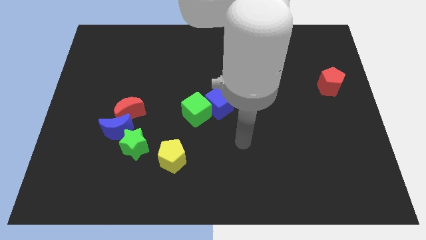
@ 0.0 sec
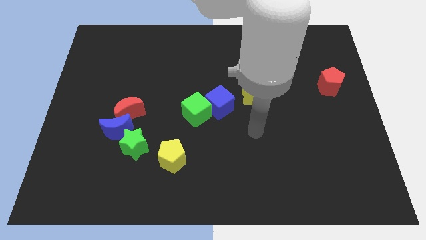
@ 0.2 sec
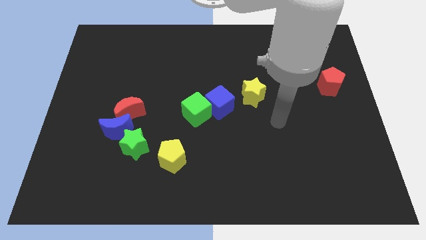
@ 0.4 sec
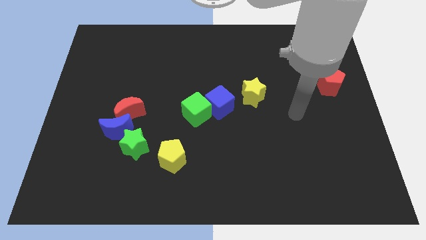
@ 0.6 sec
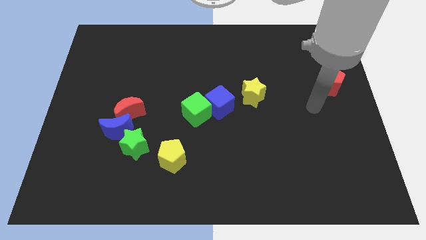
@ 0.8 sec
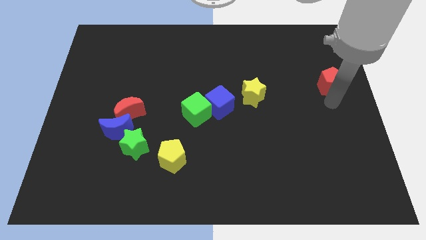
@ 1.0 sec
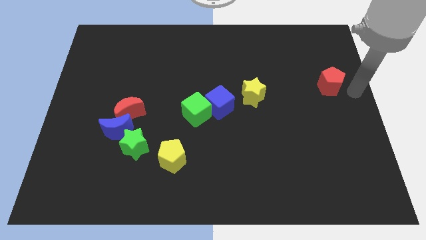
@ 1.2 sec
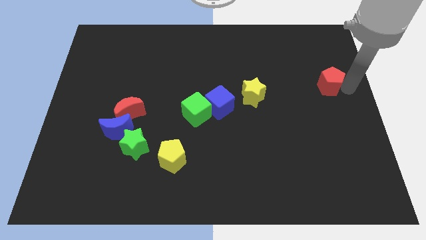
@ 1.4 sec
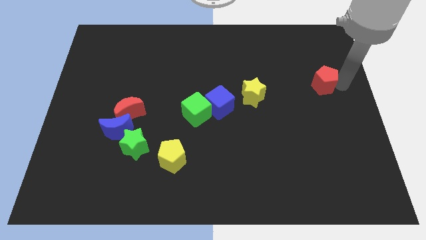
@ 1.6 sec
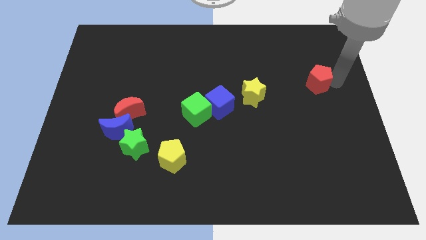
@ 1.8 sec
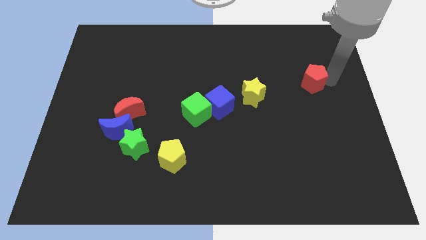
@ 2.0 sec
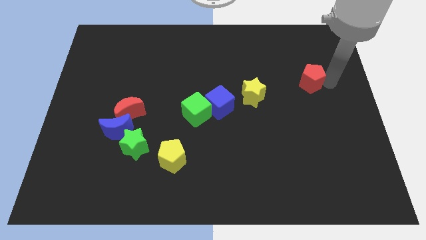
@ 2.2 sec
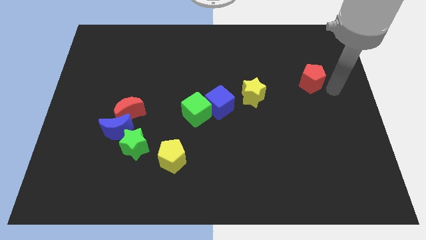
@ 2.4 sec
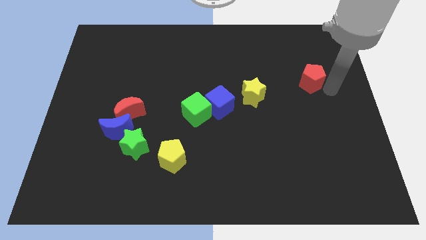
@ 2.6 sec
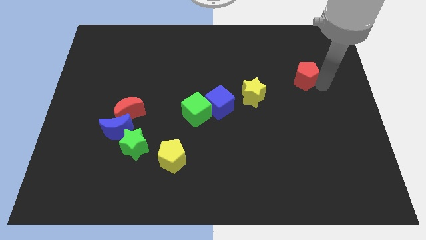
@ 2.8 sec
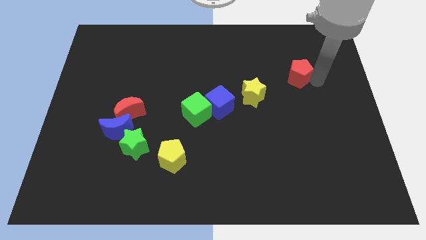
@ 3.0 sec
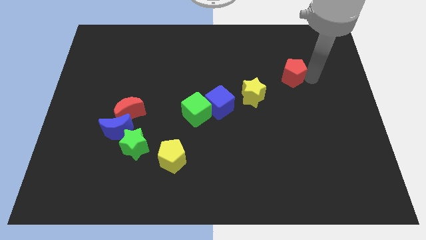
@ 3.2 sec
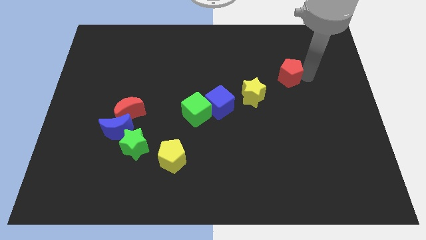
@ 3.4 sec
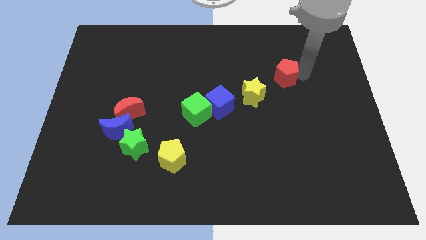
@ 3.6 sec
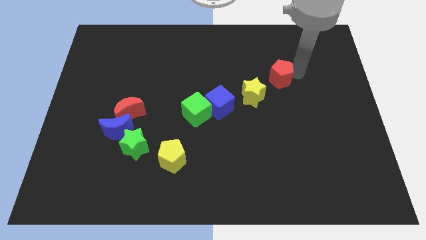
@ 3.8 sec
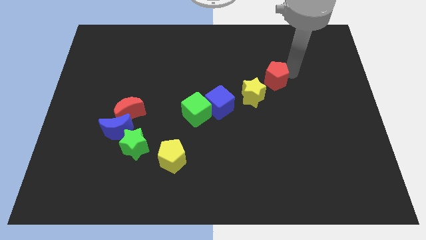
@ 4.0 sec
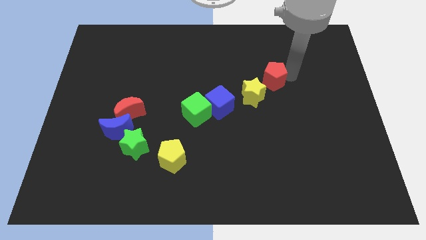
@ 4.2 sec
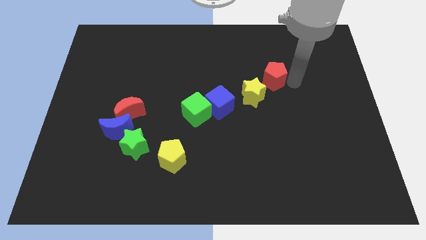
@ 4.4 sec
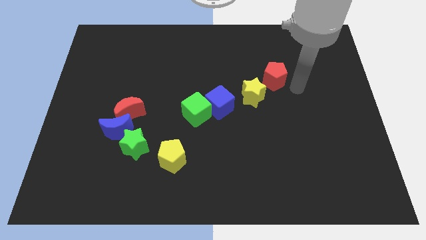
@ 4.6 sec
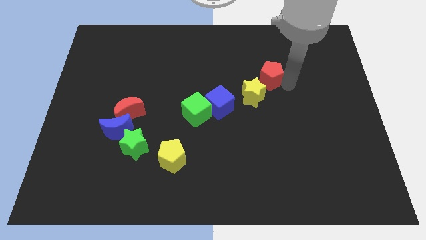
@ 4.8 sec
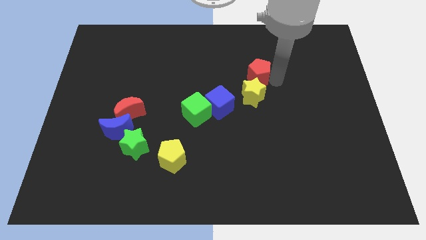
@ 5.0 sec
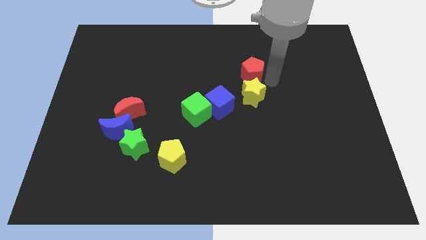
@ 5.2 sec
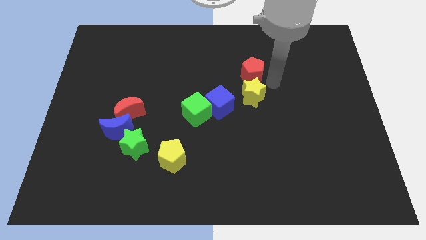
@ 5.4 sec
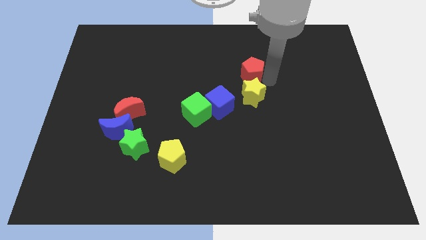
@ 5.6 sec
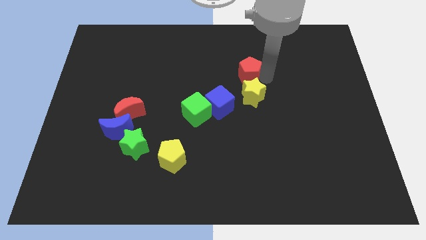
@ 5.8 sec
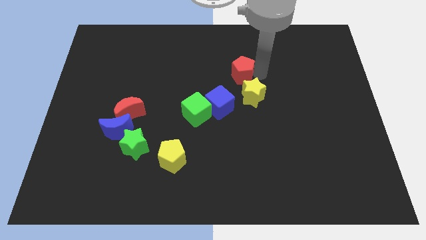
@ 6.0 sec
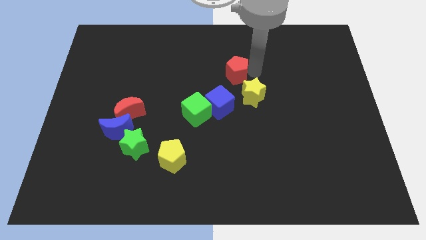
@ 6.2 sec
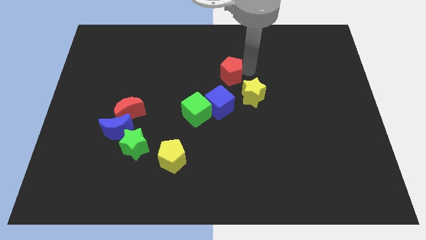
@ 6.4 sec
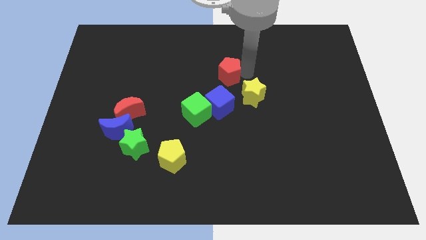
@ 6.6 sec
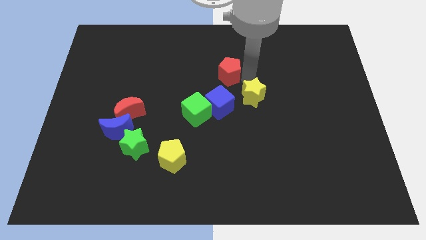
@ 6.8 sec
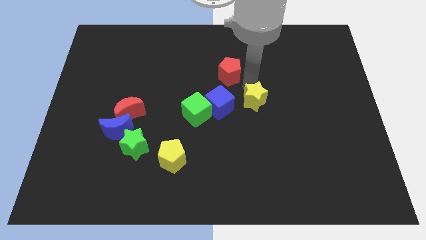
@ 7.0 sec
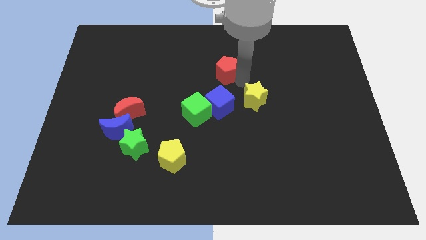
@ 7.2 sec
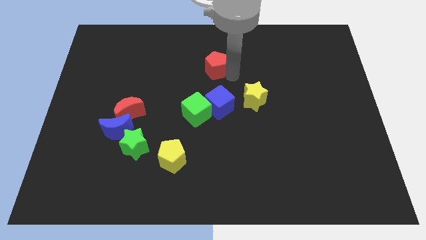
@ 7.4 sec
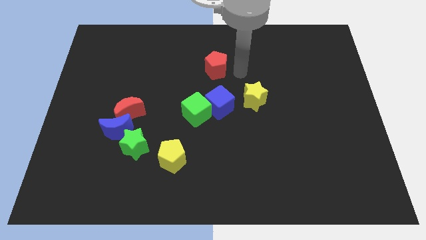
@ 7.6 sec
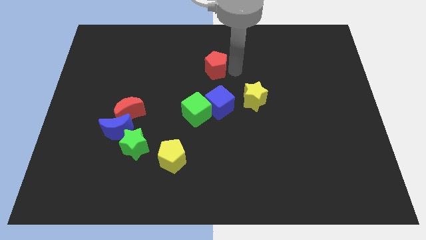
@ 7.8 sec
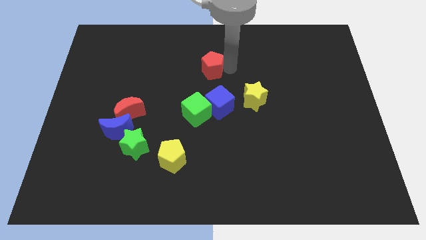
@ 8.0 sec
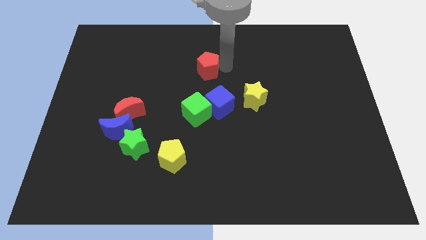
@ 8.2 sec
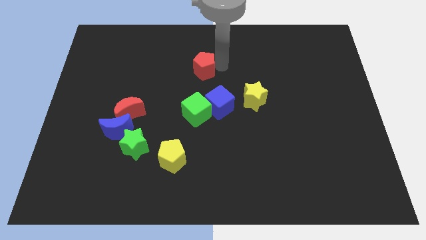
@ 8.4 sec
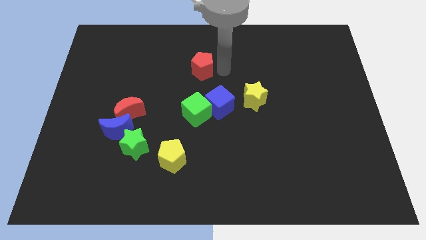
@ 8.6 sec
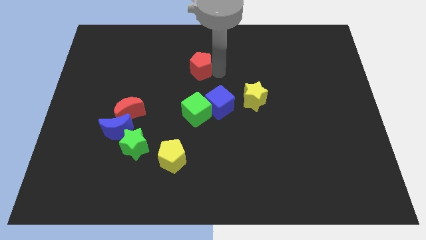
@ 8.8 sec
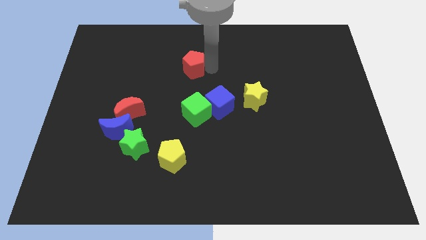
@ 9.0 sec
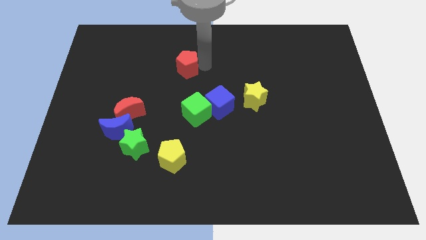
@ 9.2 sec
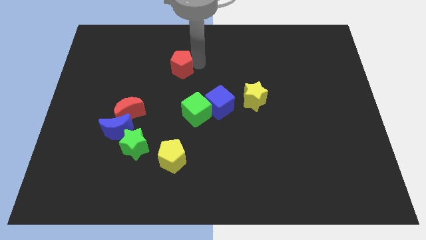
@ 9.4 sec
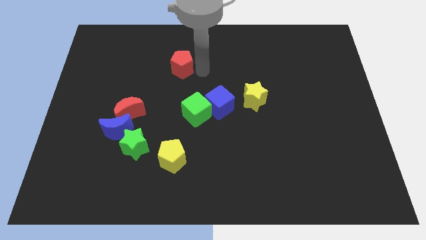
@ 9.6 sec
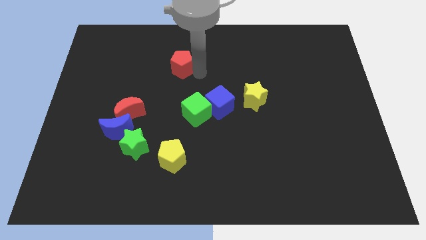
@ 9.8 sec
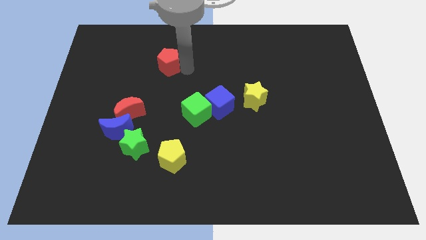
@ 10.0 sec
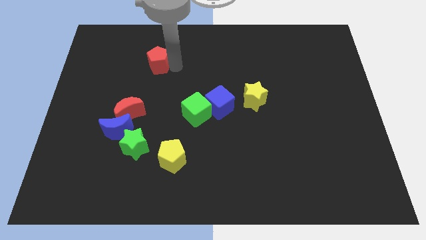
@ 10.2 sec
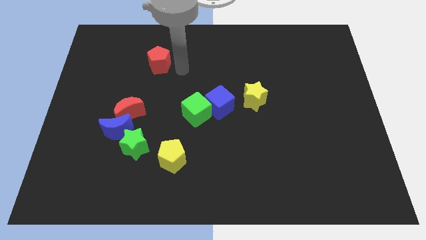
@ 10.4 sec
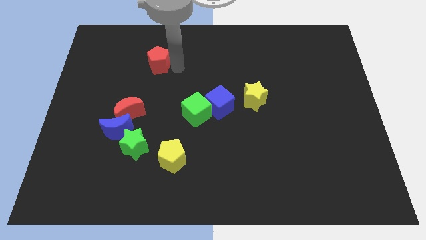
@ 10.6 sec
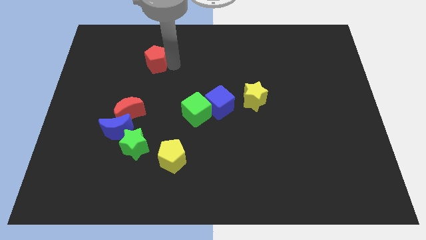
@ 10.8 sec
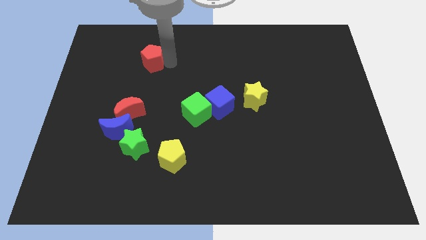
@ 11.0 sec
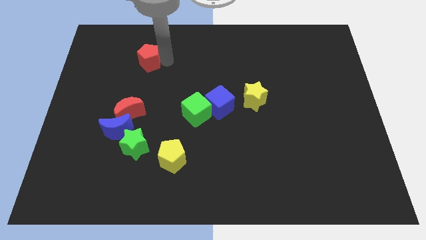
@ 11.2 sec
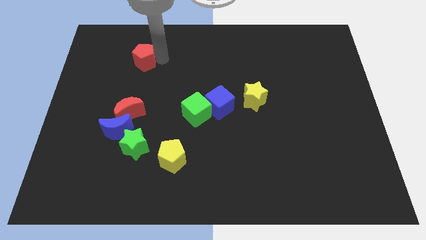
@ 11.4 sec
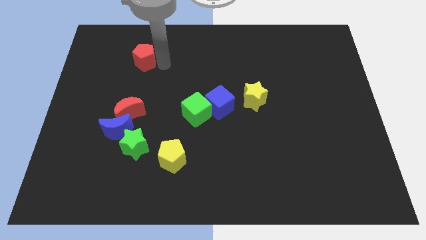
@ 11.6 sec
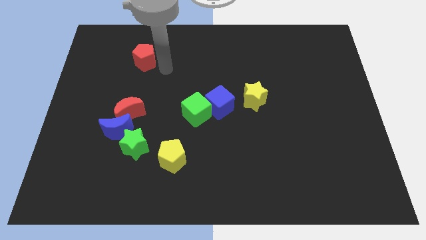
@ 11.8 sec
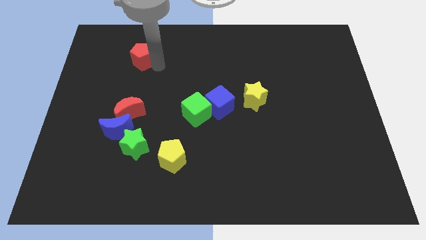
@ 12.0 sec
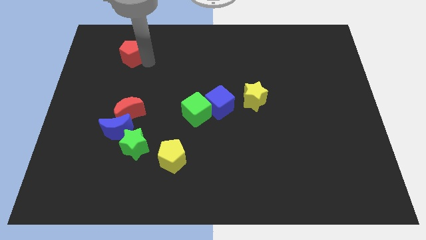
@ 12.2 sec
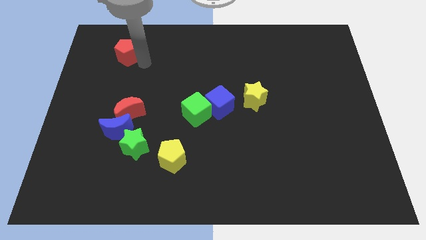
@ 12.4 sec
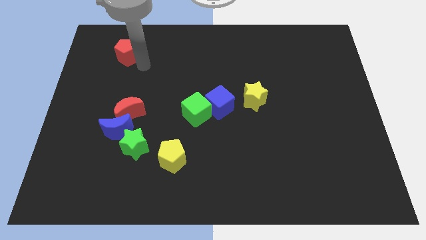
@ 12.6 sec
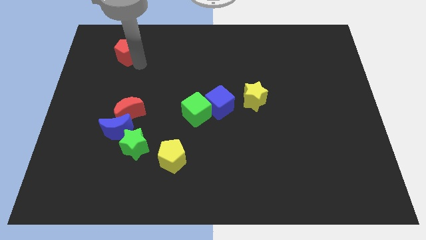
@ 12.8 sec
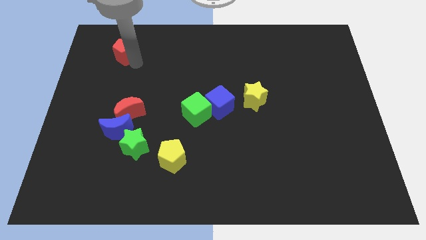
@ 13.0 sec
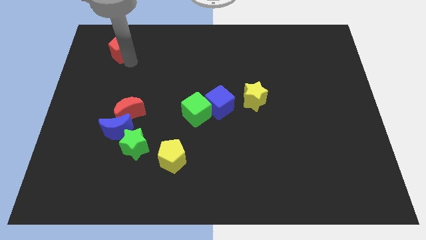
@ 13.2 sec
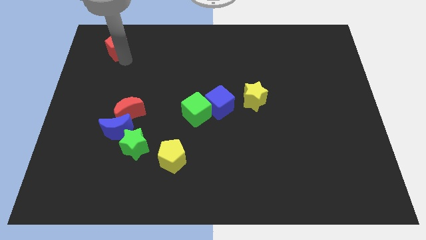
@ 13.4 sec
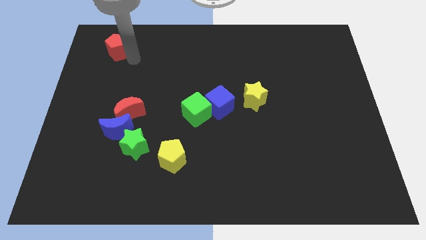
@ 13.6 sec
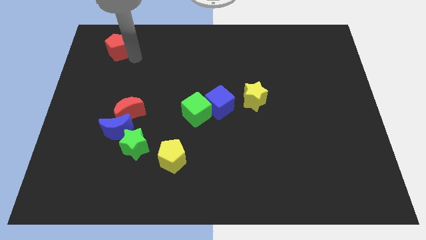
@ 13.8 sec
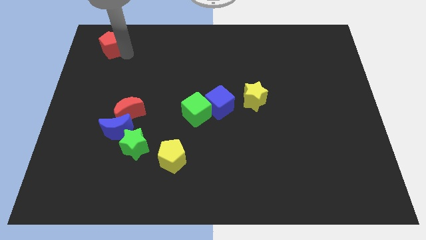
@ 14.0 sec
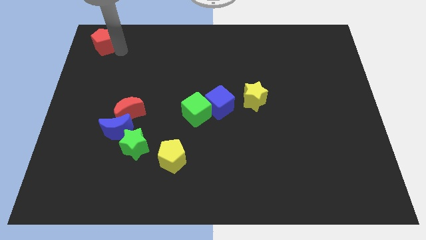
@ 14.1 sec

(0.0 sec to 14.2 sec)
push the red pentagon to the upper left corner
